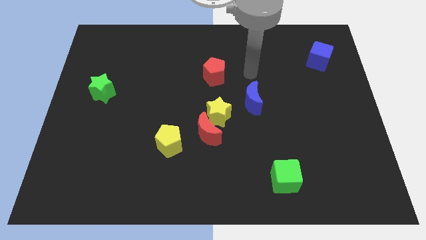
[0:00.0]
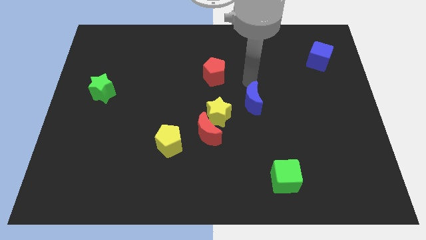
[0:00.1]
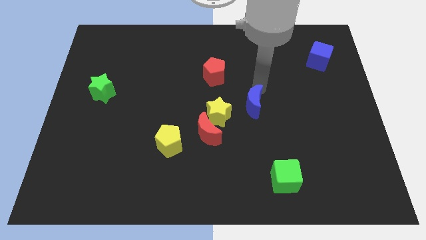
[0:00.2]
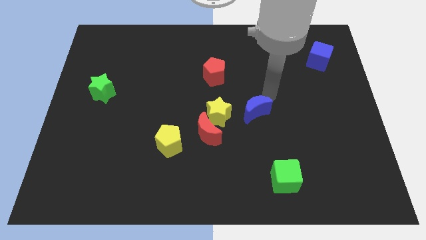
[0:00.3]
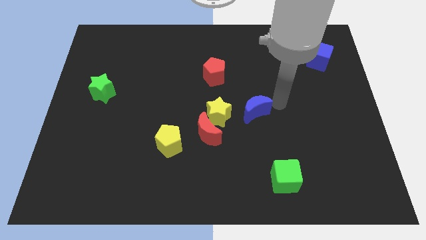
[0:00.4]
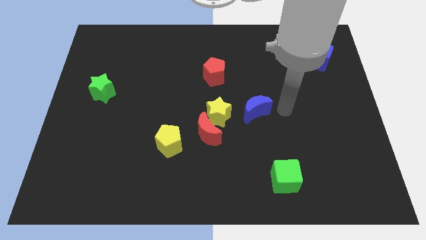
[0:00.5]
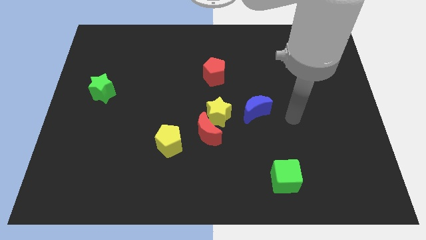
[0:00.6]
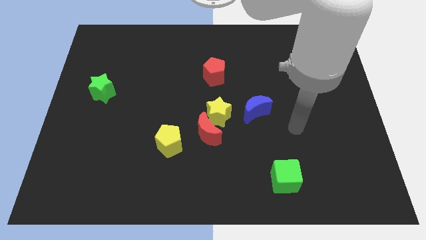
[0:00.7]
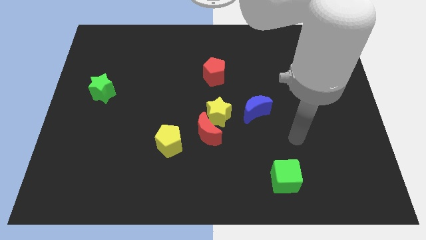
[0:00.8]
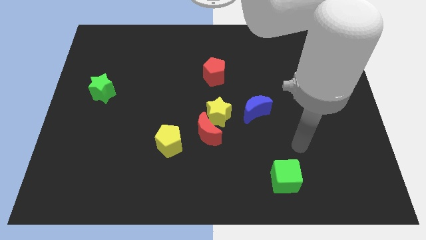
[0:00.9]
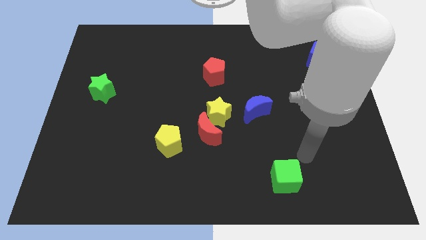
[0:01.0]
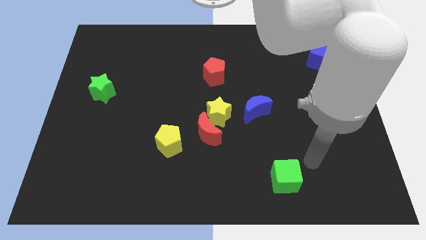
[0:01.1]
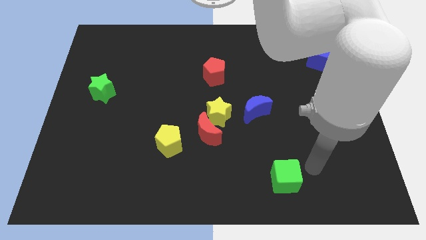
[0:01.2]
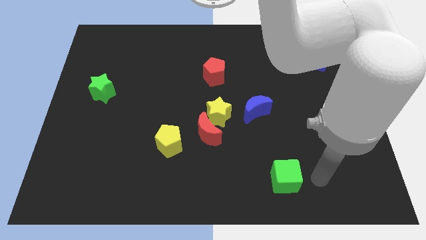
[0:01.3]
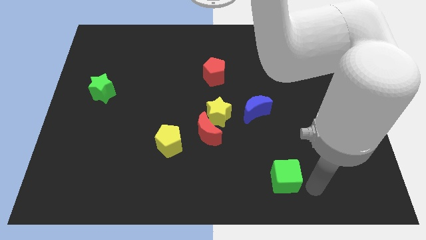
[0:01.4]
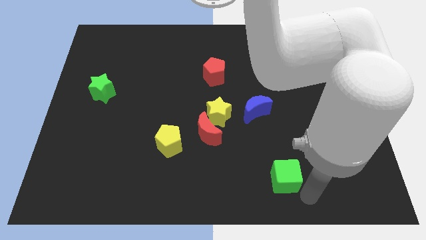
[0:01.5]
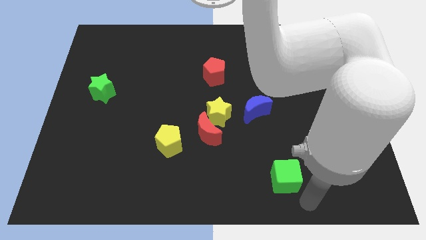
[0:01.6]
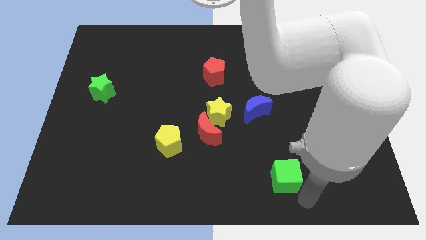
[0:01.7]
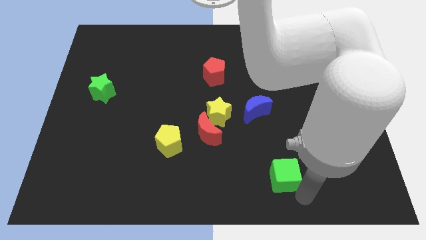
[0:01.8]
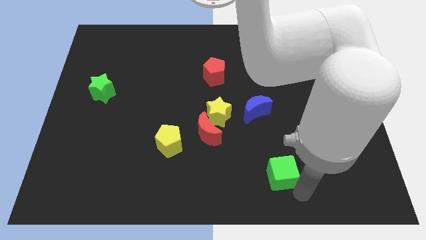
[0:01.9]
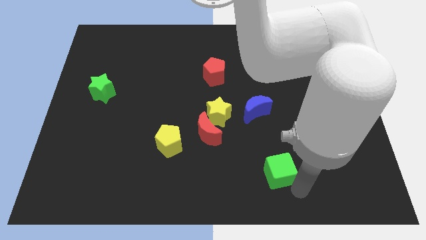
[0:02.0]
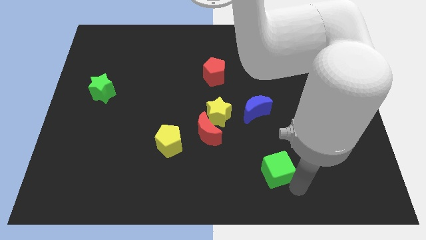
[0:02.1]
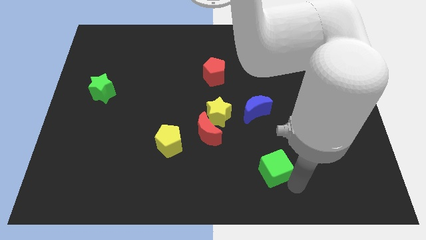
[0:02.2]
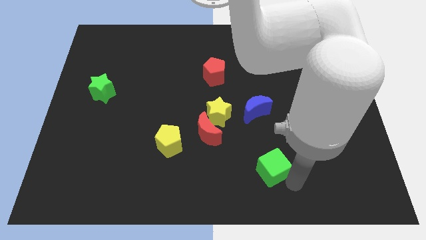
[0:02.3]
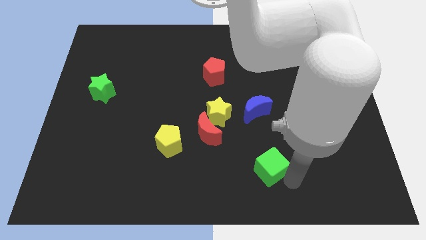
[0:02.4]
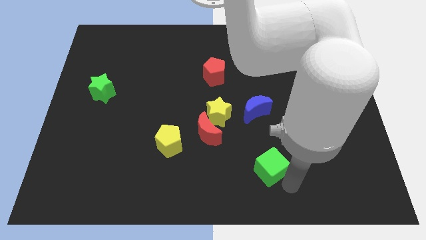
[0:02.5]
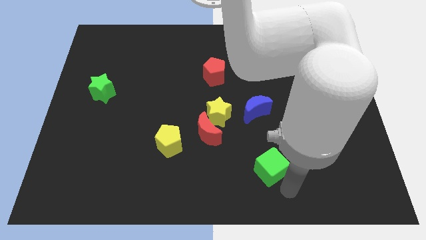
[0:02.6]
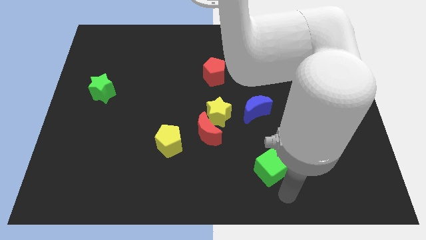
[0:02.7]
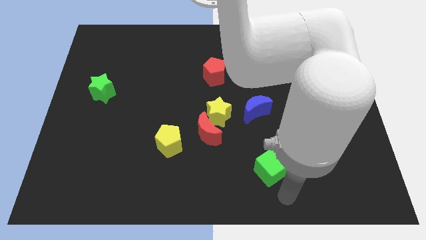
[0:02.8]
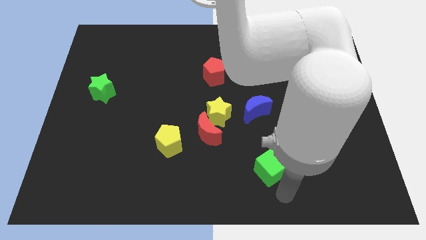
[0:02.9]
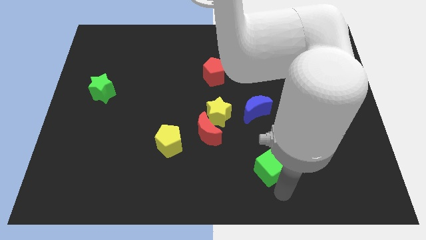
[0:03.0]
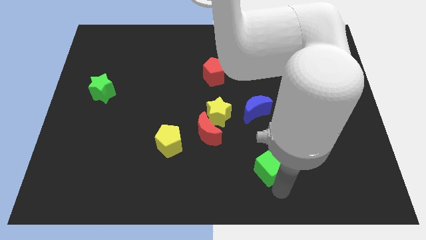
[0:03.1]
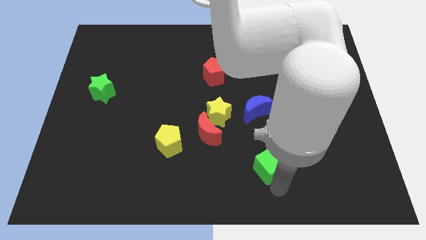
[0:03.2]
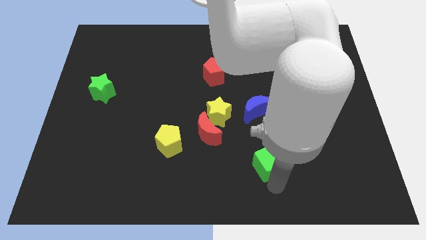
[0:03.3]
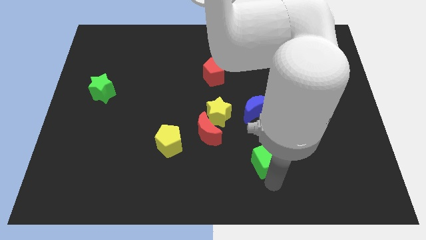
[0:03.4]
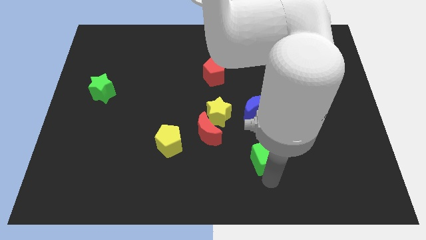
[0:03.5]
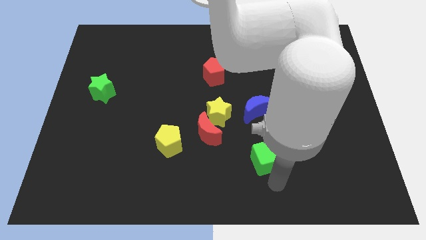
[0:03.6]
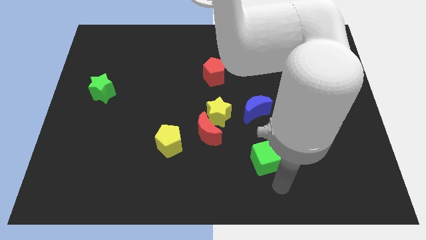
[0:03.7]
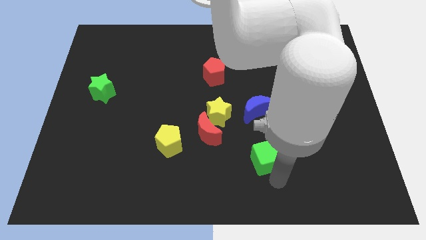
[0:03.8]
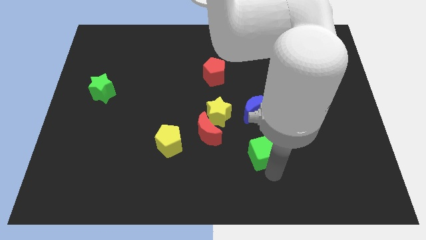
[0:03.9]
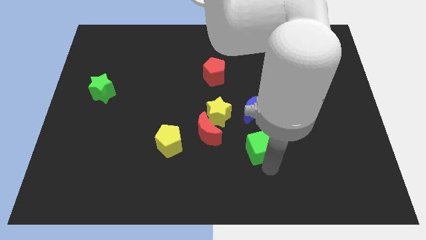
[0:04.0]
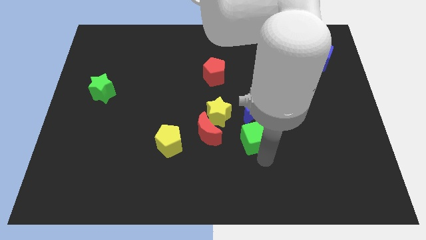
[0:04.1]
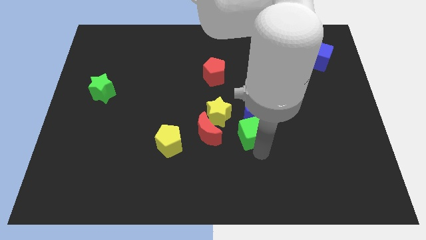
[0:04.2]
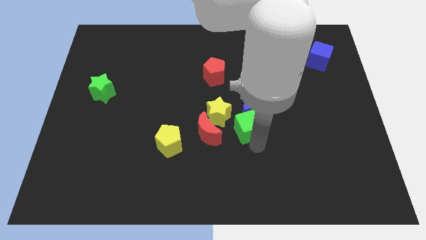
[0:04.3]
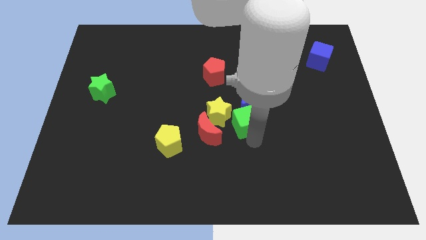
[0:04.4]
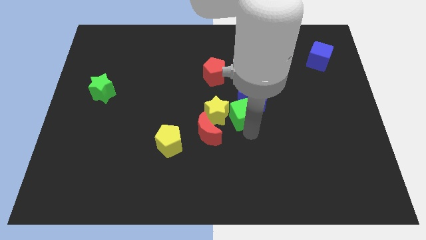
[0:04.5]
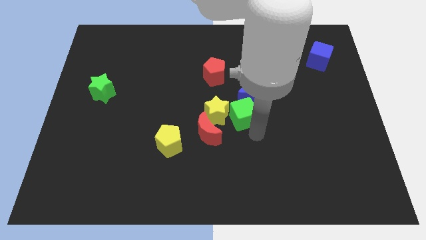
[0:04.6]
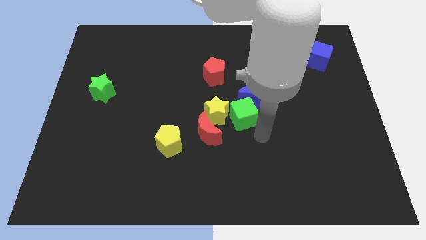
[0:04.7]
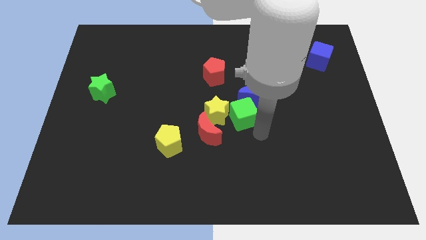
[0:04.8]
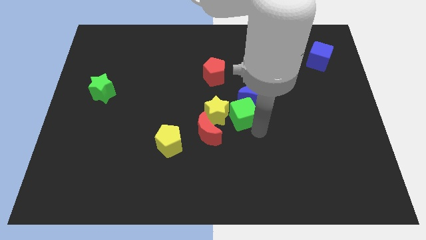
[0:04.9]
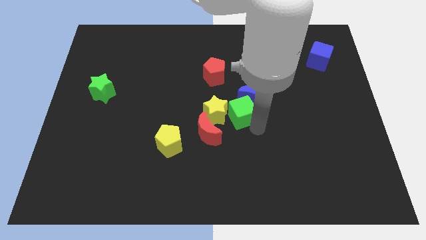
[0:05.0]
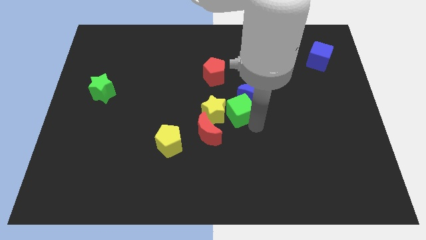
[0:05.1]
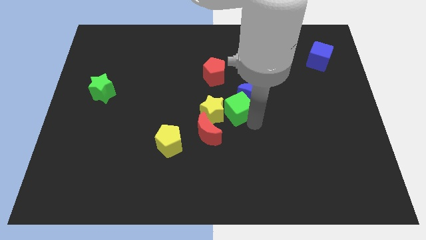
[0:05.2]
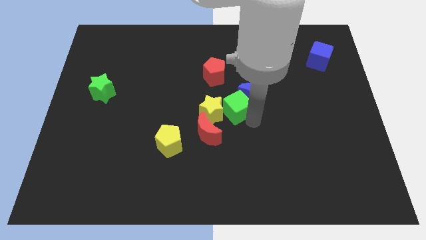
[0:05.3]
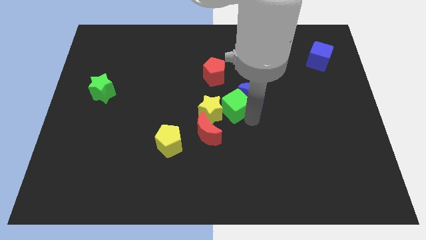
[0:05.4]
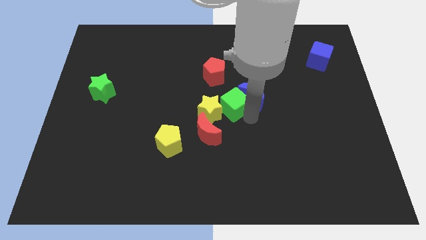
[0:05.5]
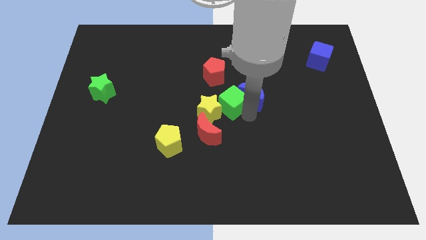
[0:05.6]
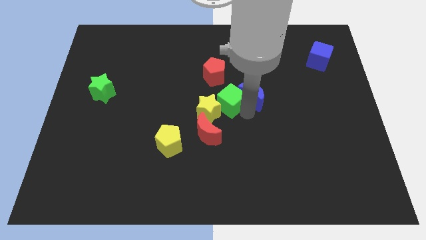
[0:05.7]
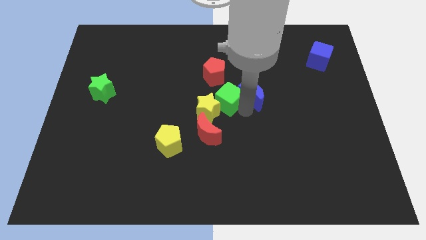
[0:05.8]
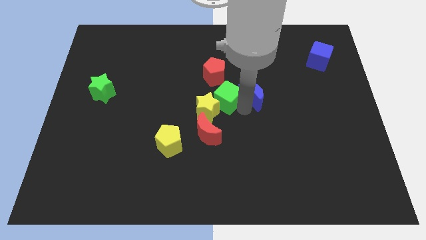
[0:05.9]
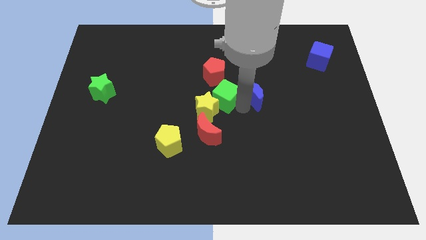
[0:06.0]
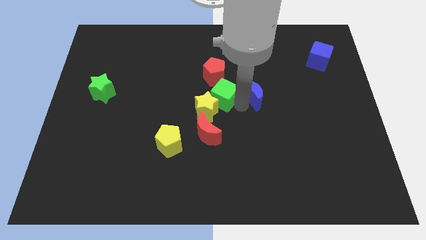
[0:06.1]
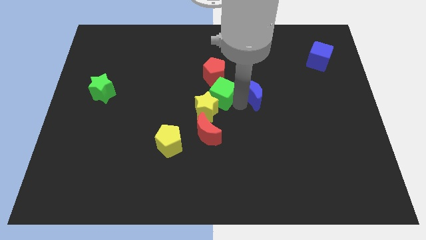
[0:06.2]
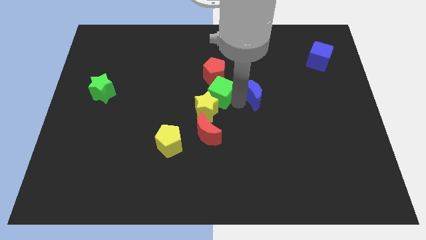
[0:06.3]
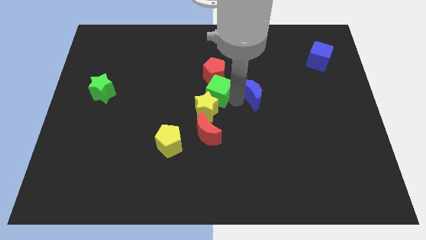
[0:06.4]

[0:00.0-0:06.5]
put the green cube to the bottom left of the red pentagon

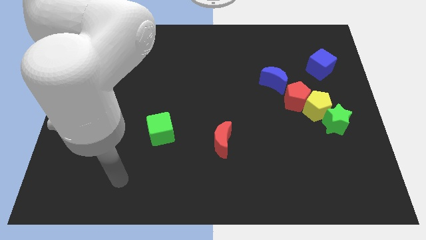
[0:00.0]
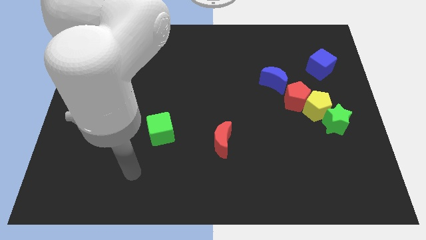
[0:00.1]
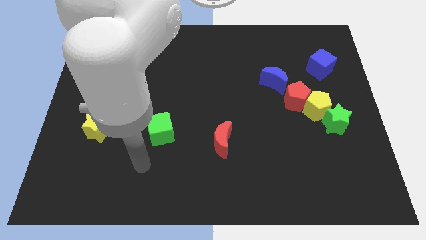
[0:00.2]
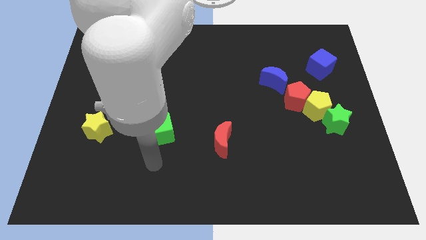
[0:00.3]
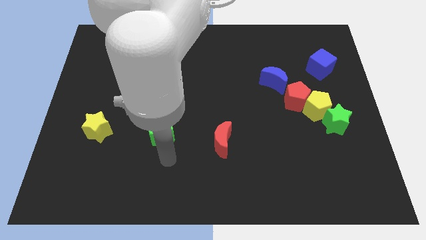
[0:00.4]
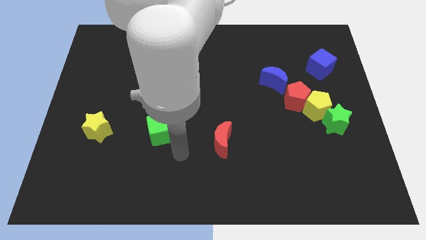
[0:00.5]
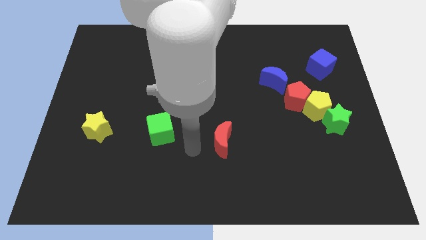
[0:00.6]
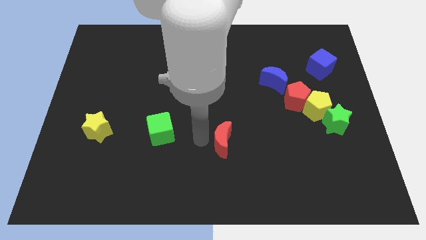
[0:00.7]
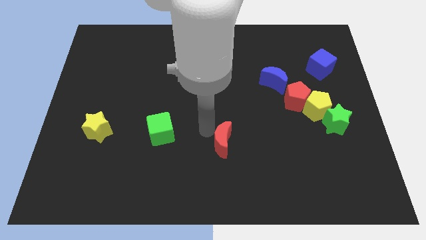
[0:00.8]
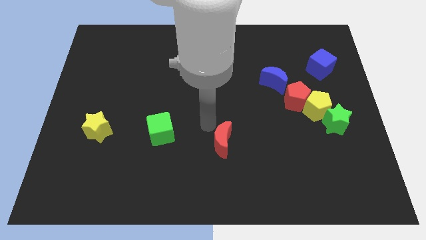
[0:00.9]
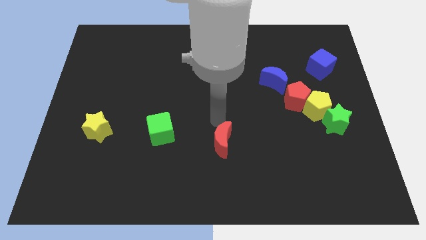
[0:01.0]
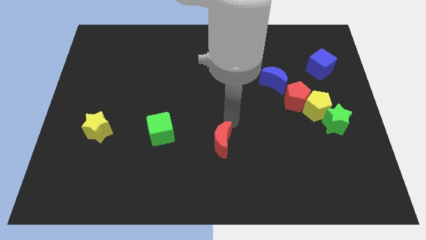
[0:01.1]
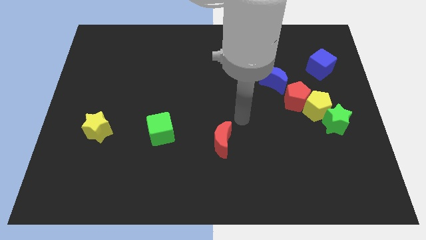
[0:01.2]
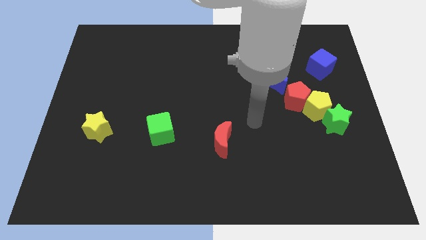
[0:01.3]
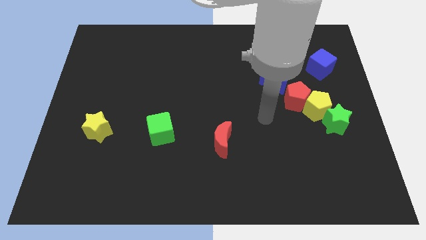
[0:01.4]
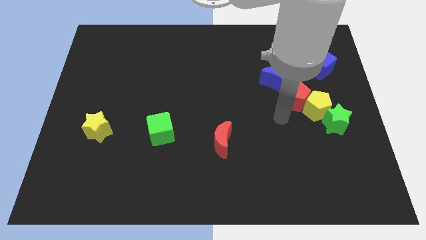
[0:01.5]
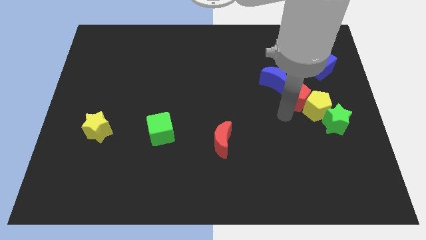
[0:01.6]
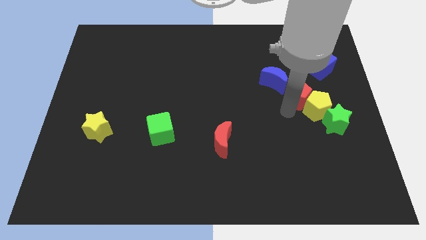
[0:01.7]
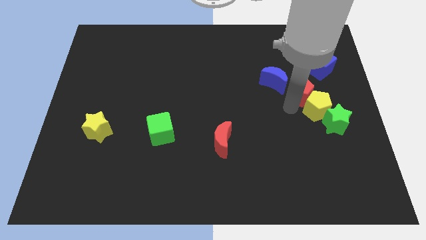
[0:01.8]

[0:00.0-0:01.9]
slide the red pentagon just right of the blue moon
